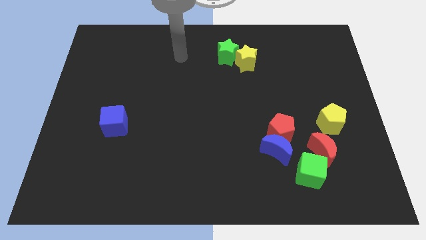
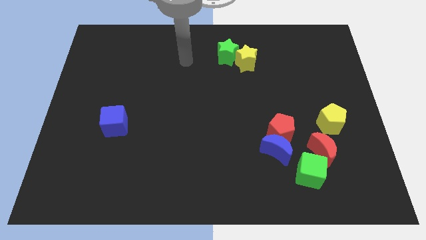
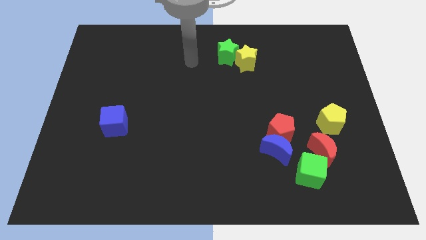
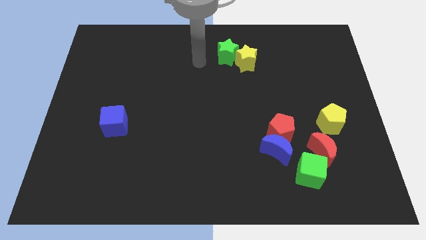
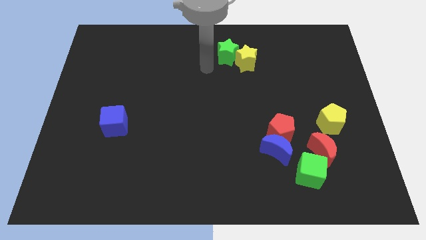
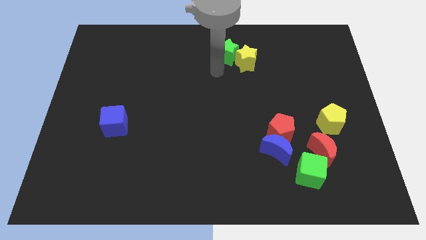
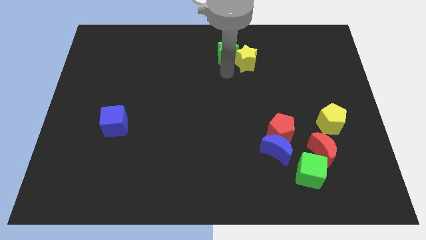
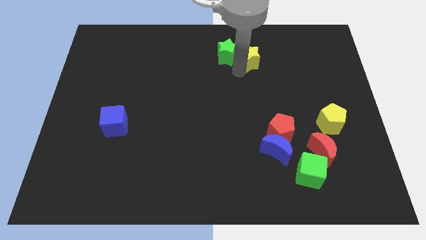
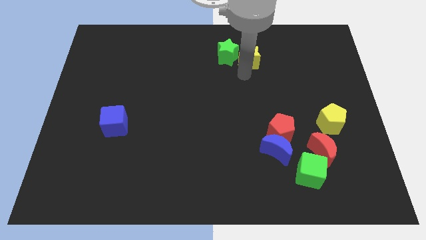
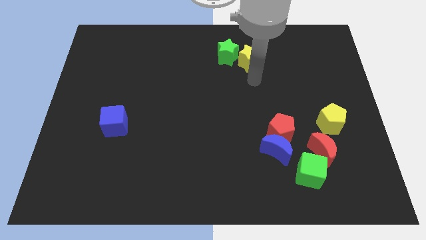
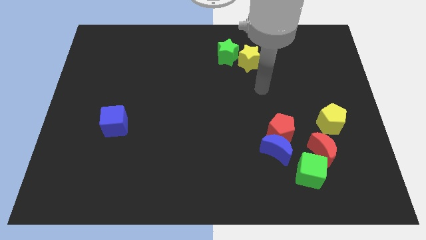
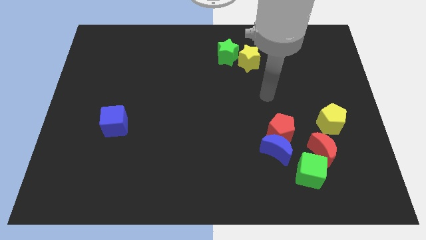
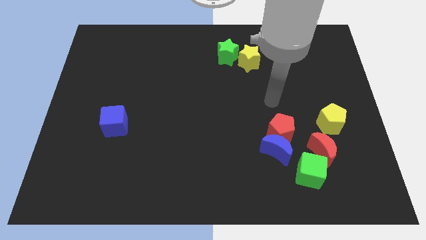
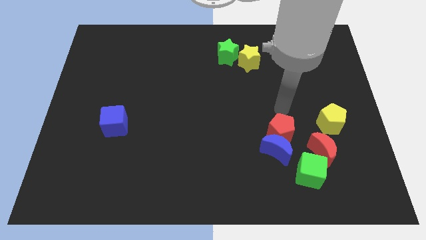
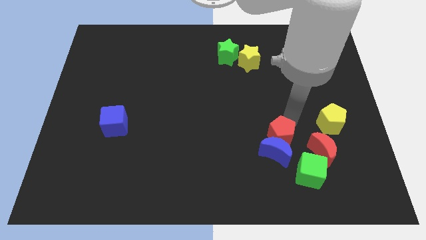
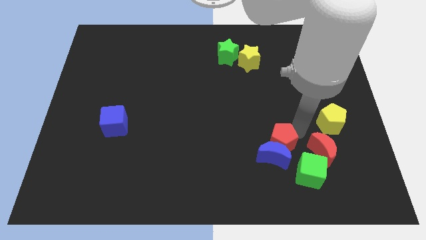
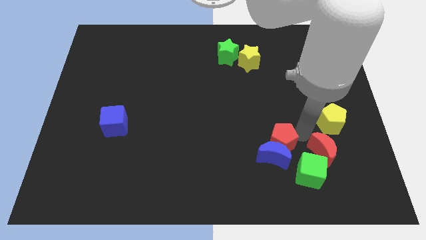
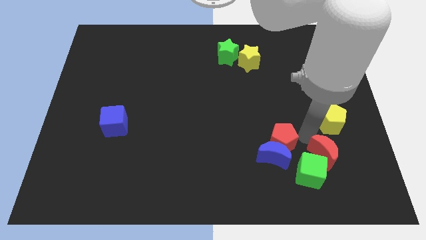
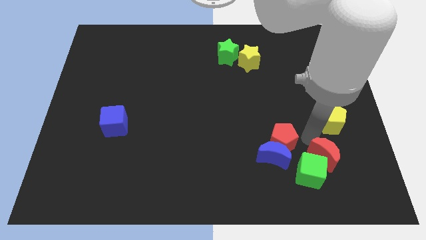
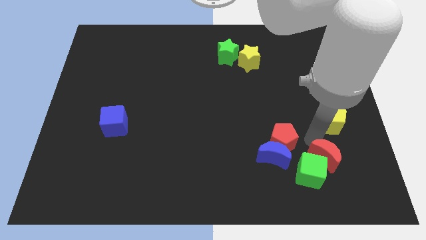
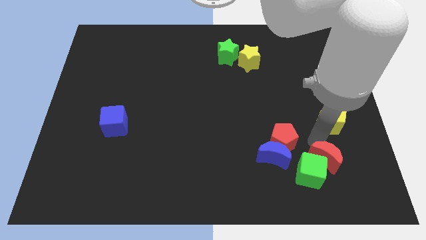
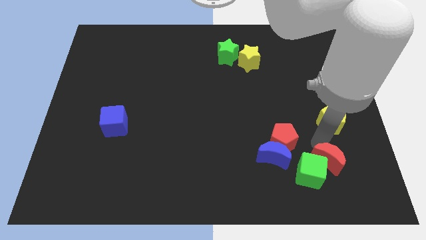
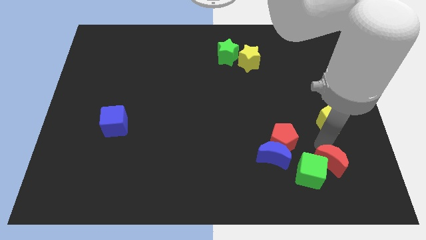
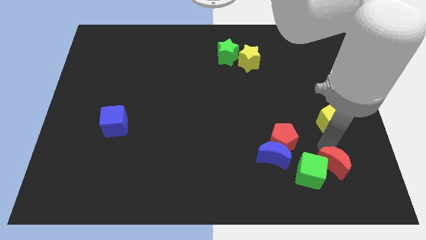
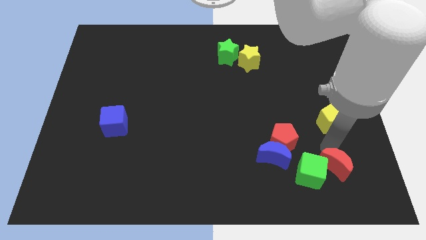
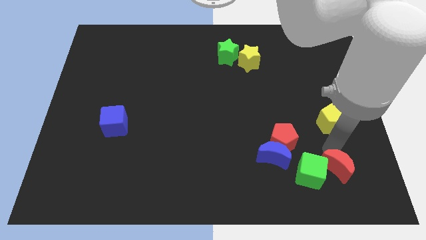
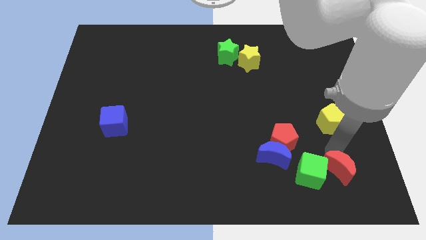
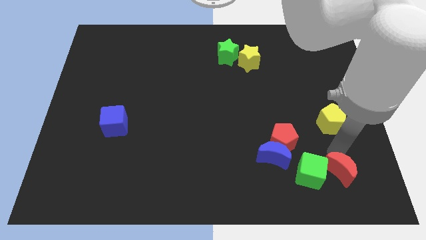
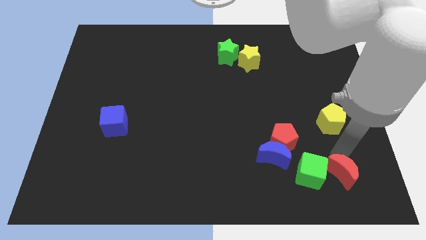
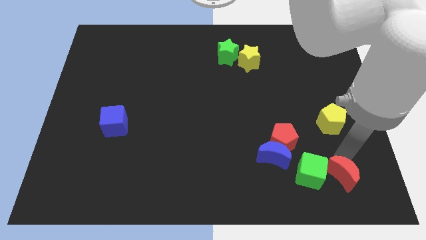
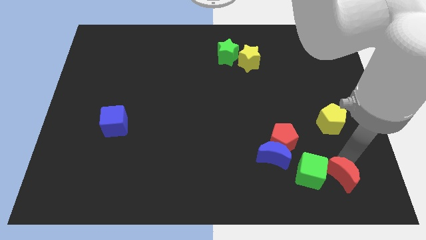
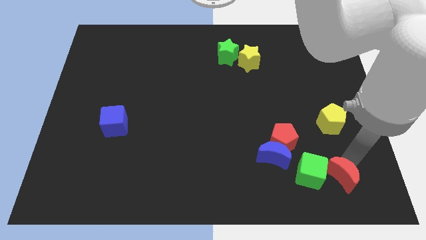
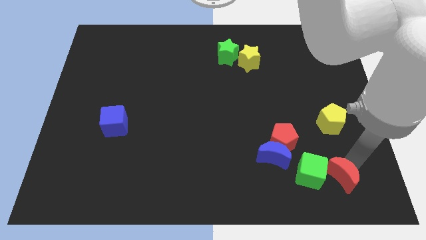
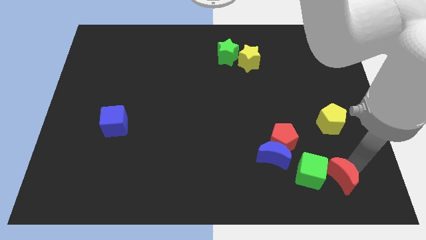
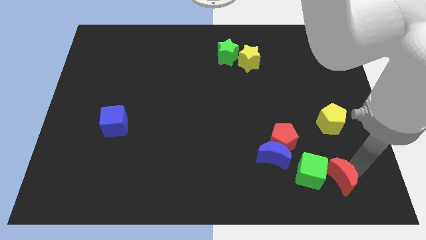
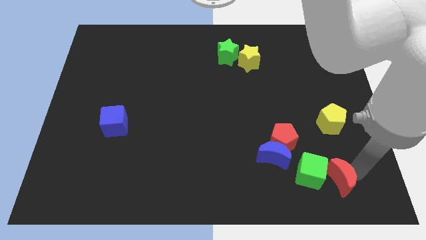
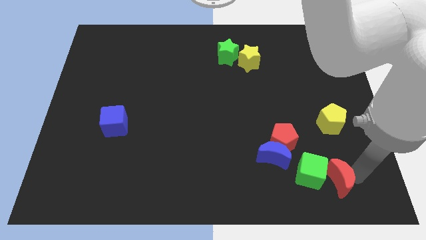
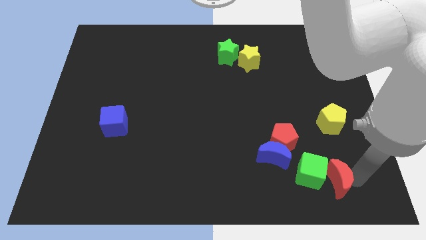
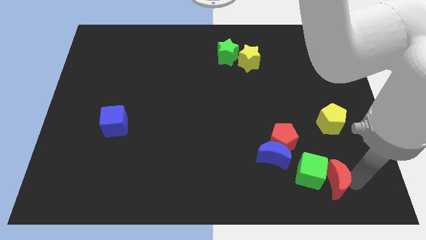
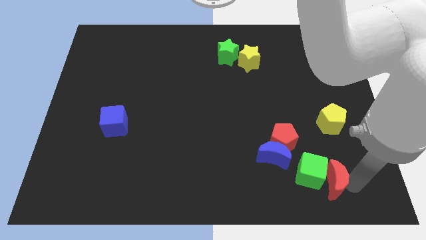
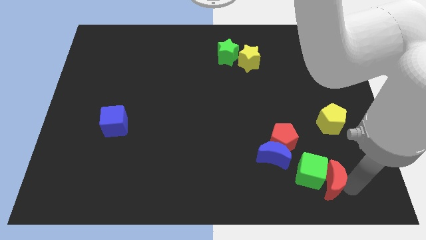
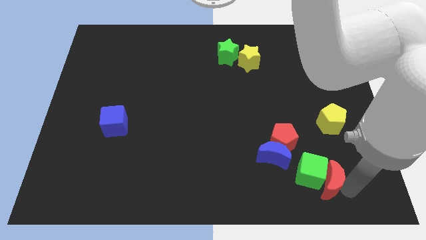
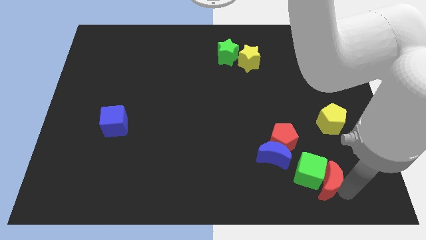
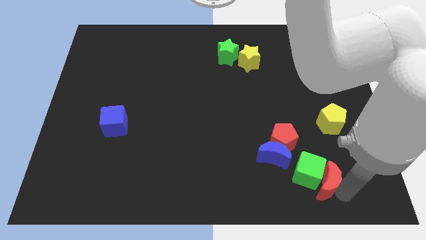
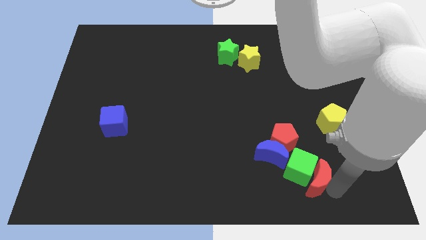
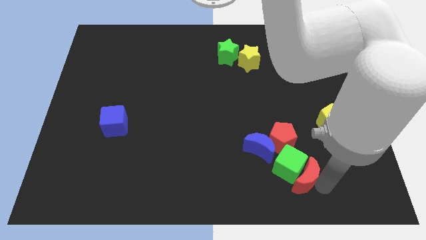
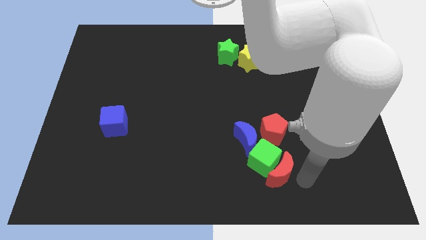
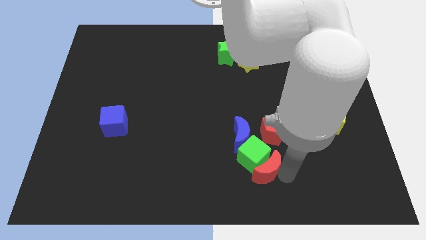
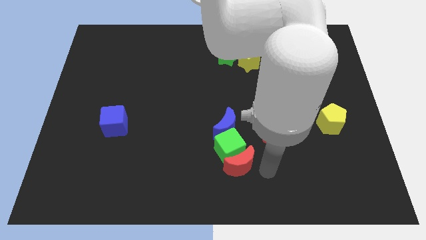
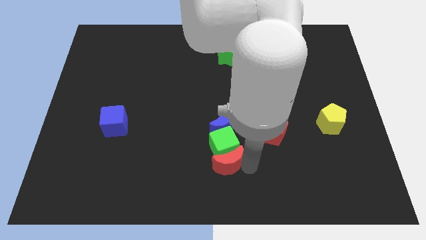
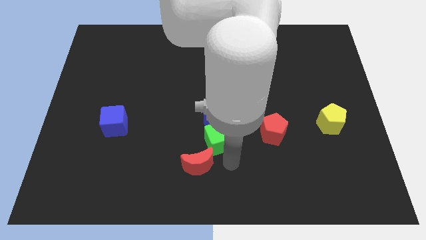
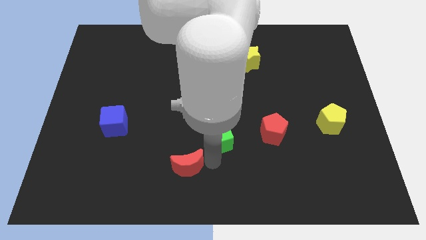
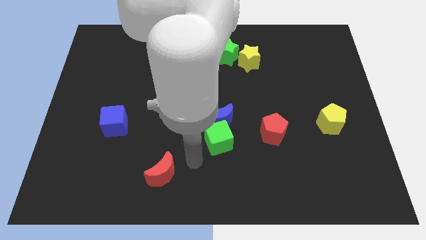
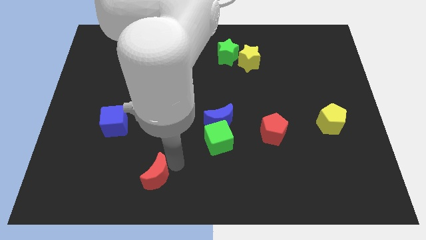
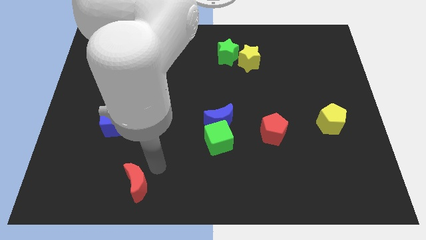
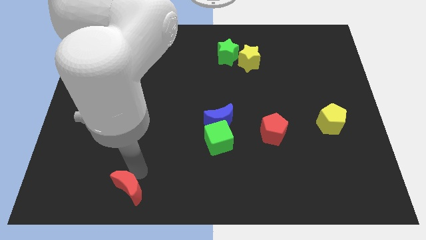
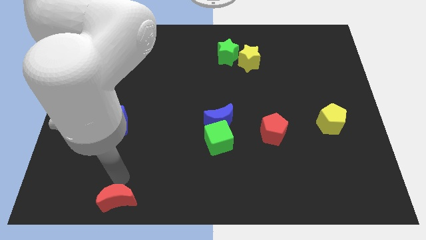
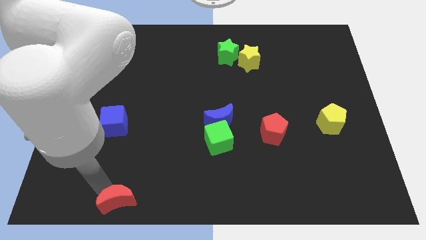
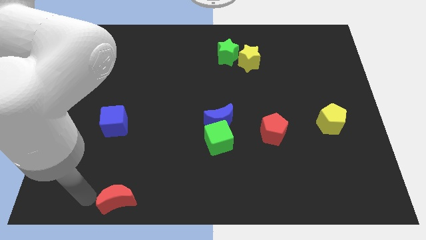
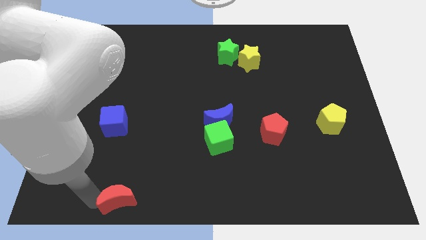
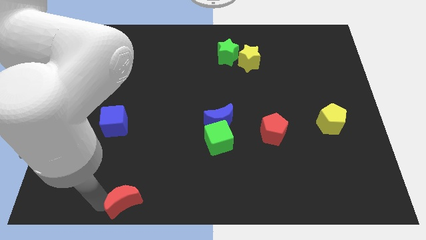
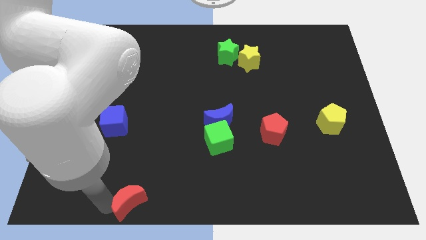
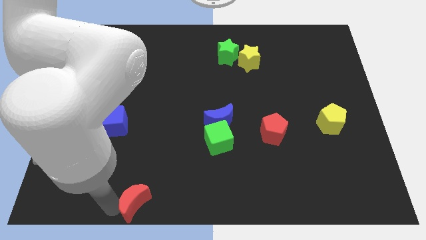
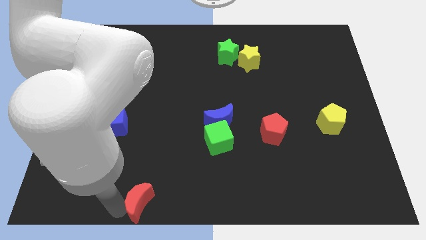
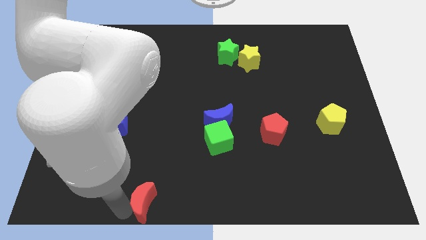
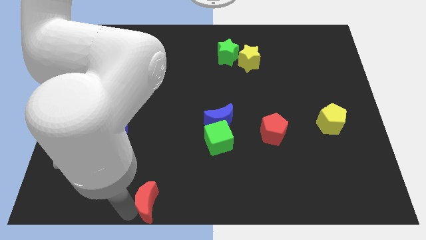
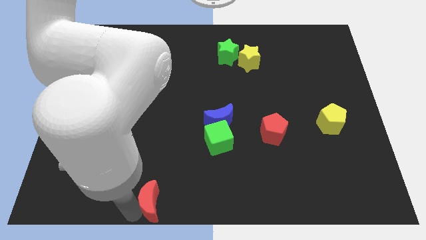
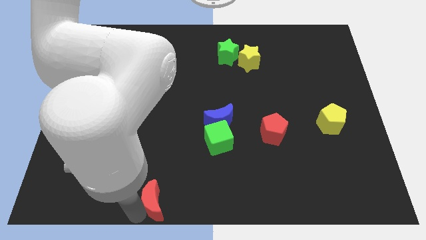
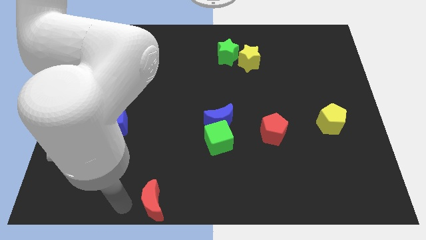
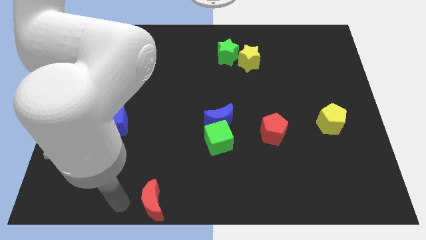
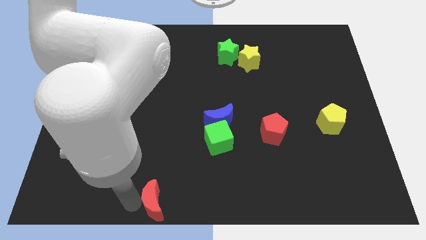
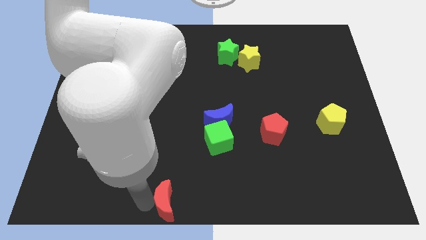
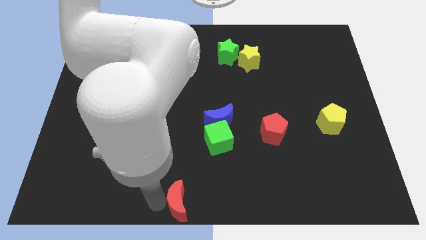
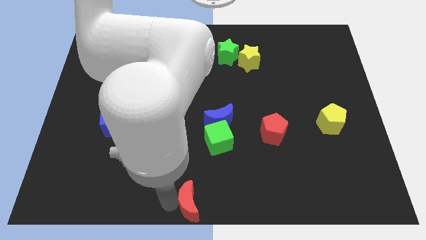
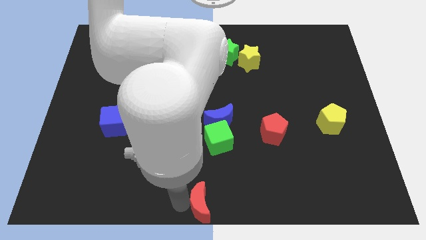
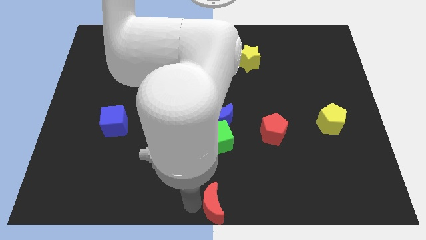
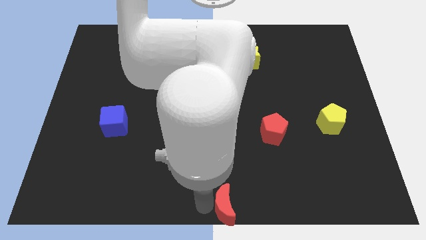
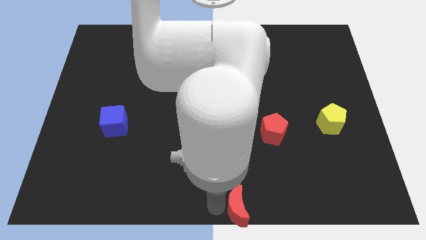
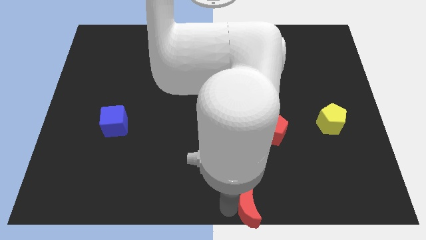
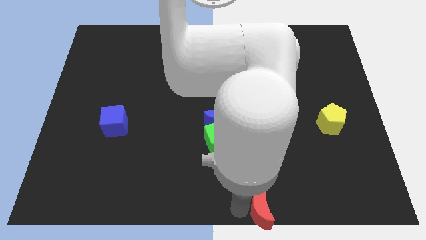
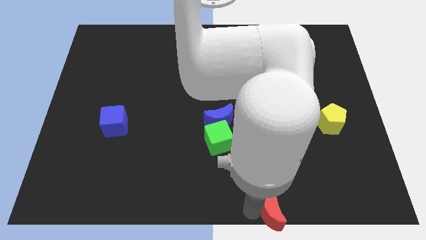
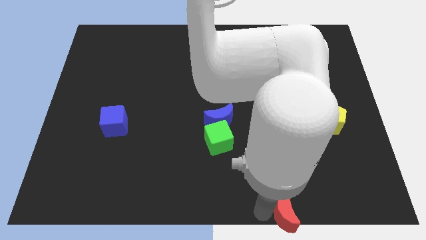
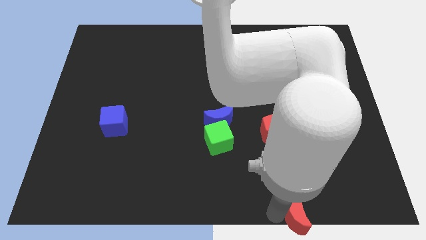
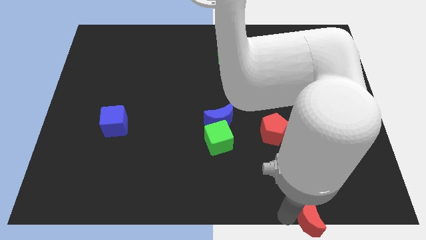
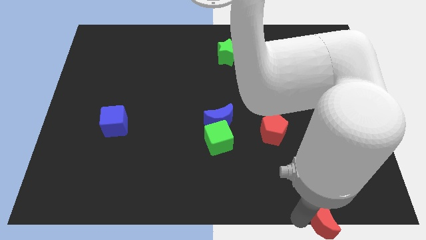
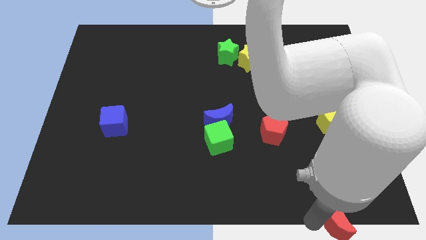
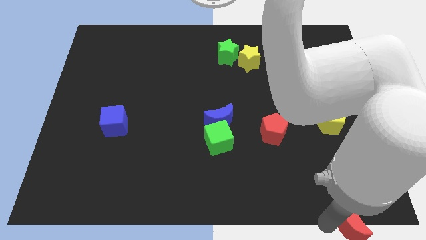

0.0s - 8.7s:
put the red moon to the bottom right
